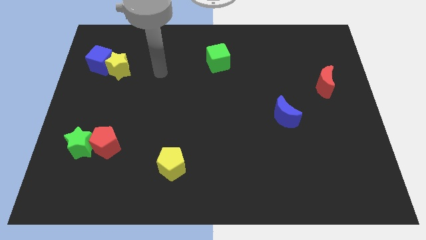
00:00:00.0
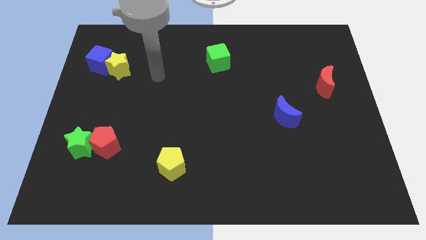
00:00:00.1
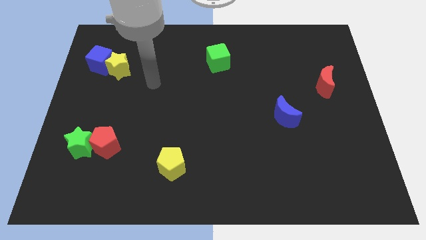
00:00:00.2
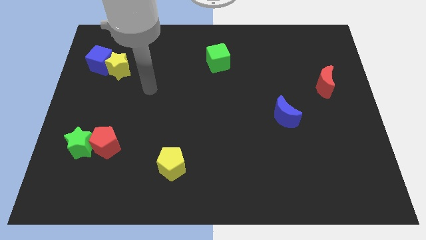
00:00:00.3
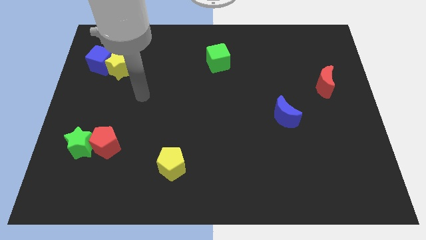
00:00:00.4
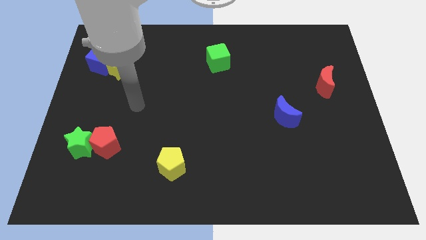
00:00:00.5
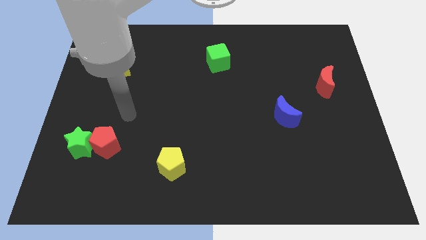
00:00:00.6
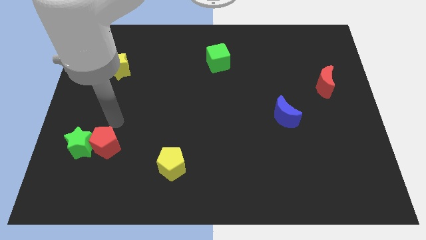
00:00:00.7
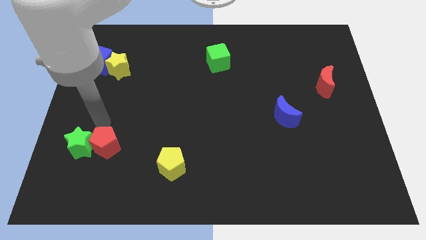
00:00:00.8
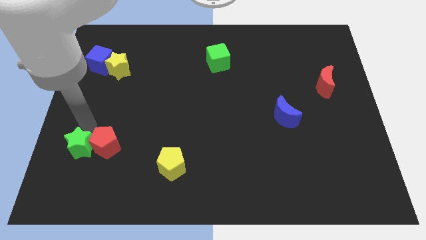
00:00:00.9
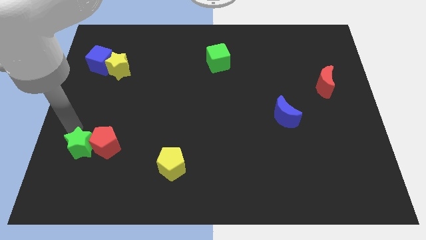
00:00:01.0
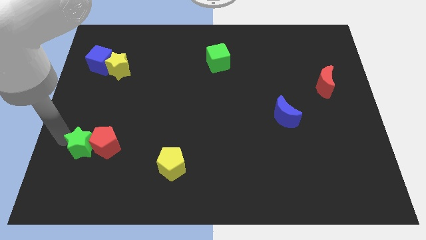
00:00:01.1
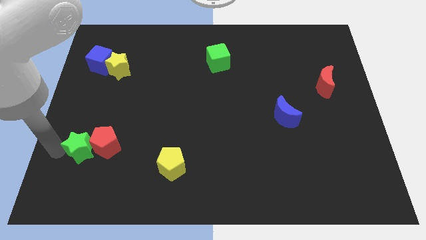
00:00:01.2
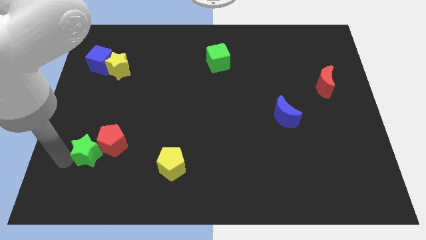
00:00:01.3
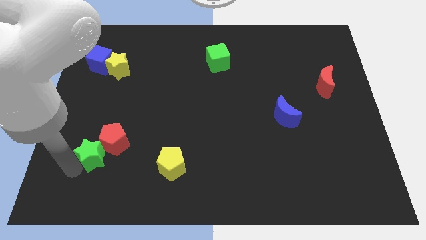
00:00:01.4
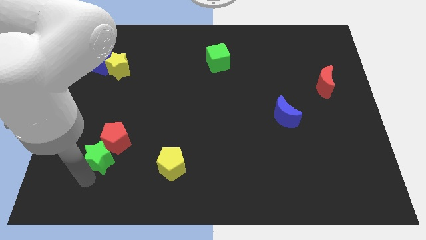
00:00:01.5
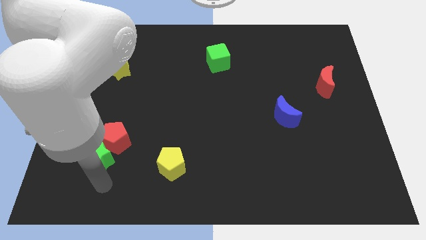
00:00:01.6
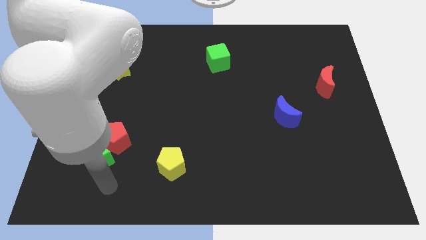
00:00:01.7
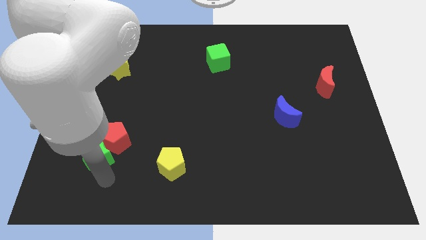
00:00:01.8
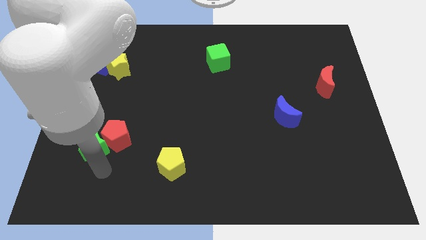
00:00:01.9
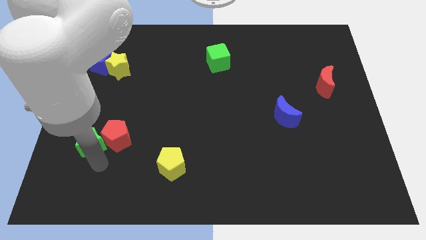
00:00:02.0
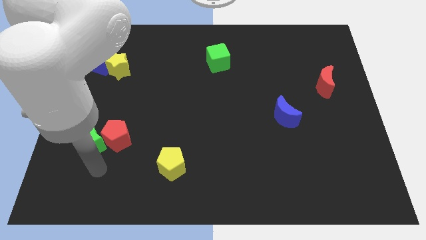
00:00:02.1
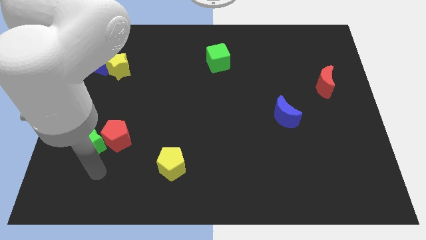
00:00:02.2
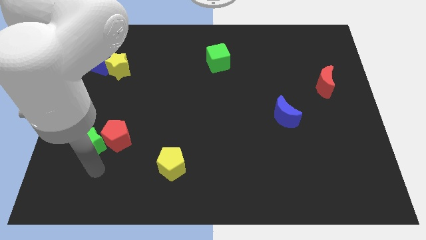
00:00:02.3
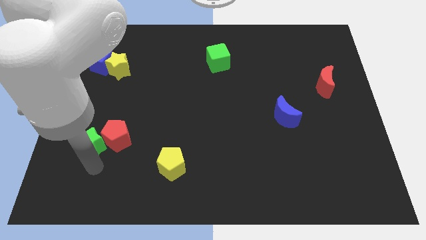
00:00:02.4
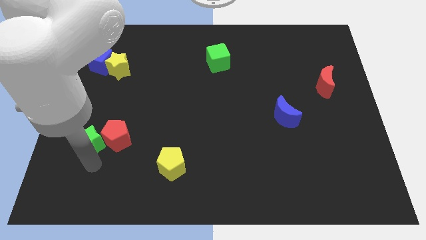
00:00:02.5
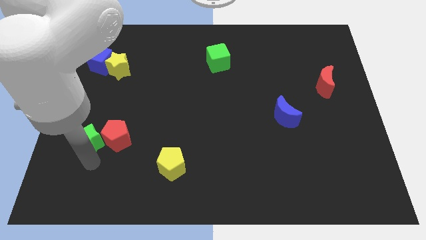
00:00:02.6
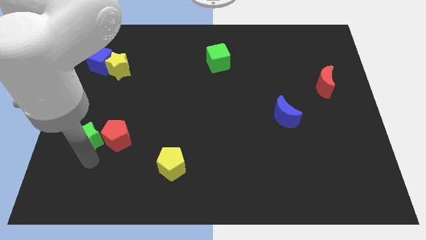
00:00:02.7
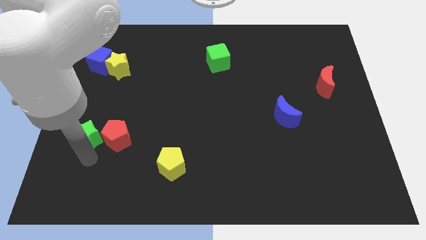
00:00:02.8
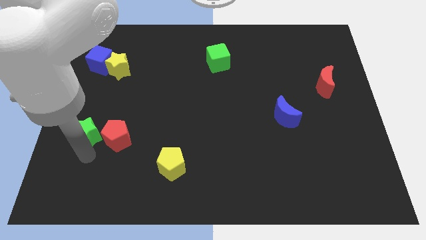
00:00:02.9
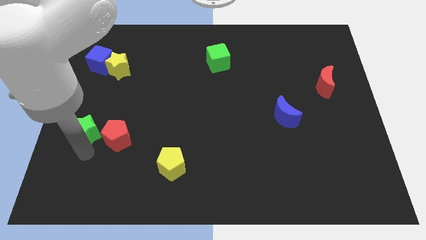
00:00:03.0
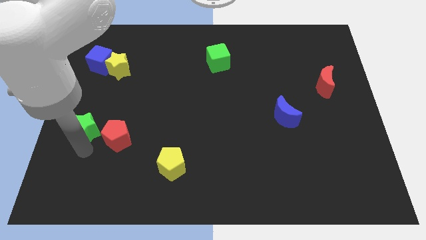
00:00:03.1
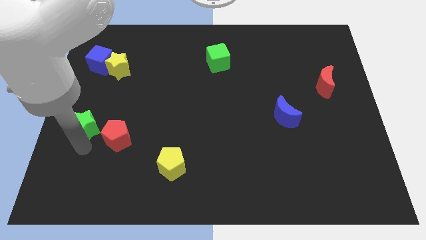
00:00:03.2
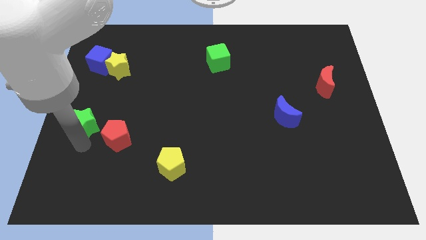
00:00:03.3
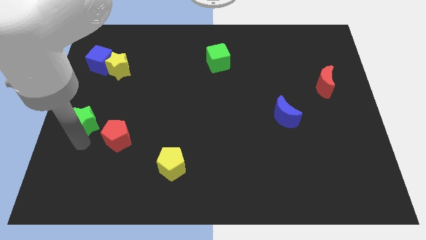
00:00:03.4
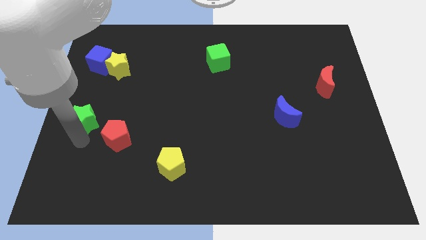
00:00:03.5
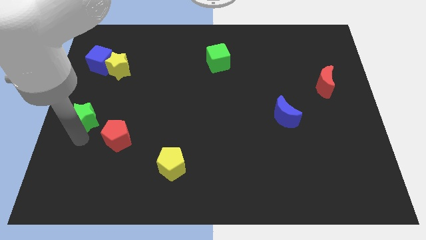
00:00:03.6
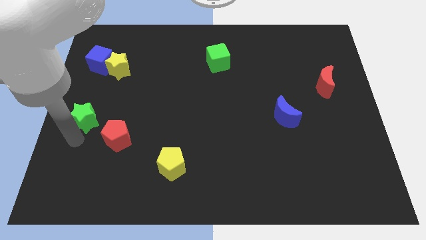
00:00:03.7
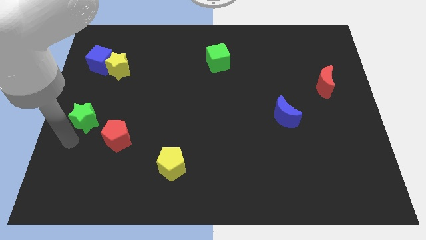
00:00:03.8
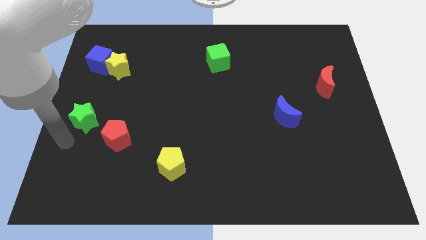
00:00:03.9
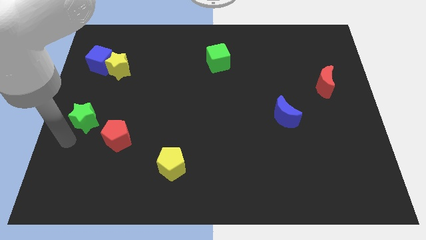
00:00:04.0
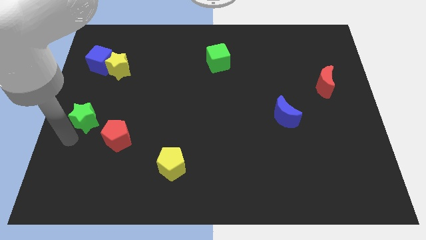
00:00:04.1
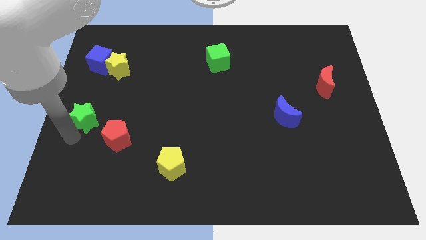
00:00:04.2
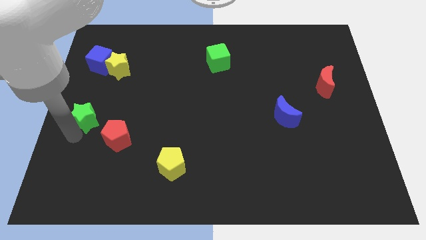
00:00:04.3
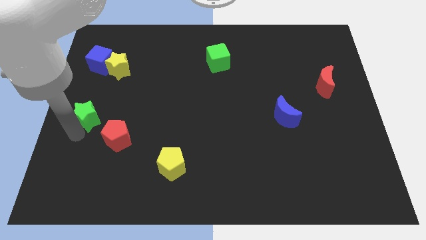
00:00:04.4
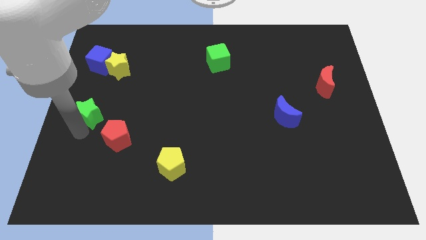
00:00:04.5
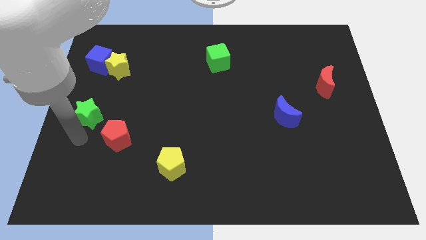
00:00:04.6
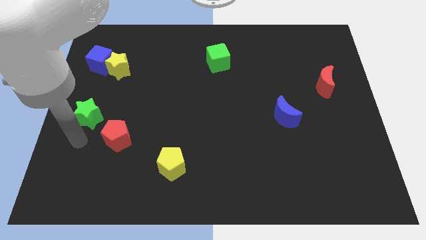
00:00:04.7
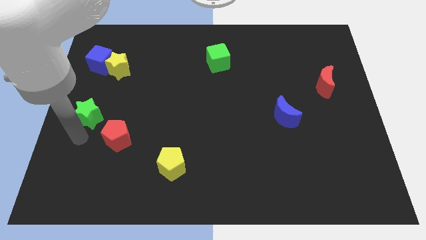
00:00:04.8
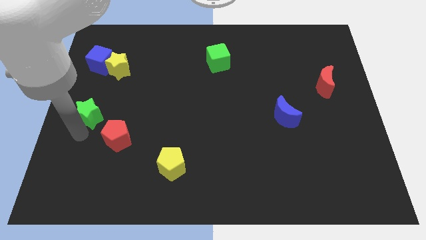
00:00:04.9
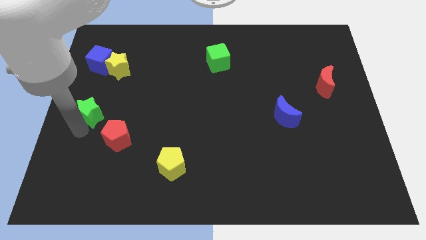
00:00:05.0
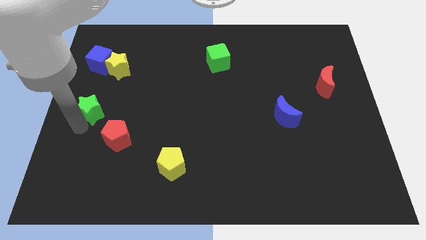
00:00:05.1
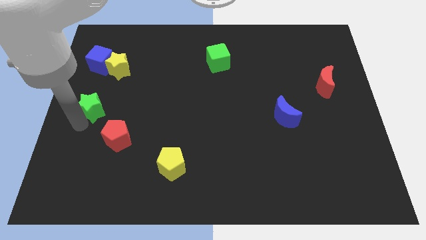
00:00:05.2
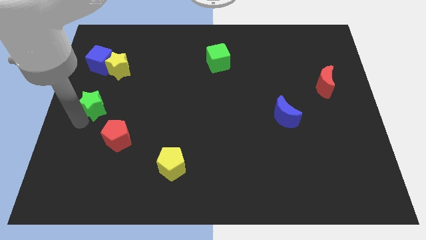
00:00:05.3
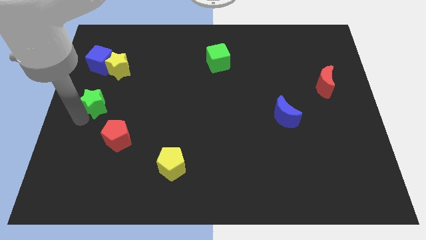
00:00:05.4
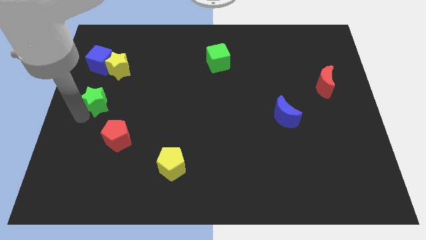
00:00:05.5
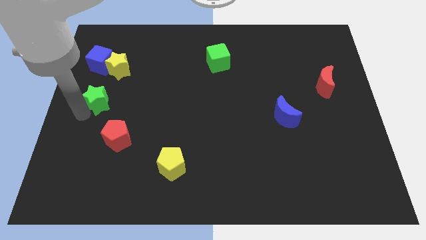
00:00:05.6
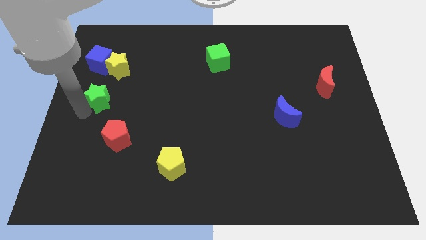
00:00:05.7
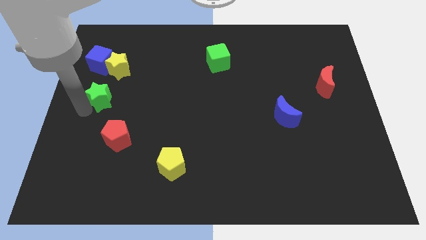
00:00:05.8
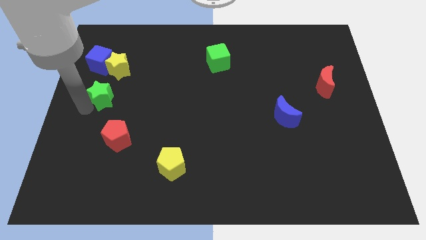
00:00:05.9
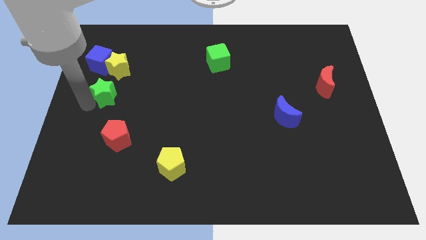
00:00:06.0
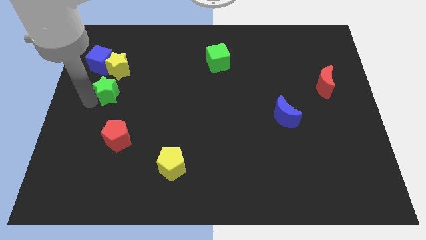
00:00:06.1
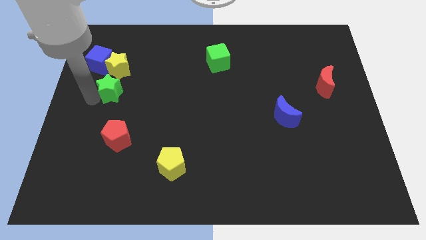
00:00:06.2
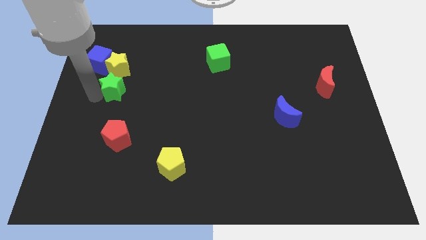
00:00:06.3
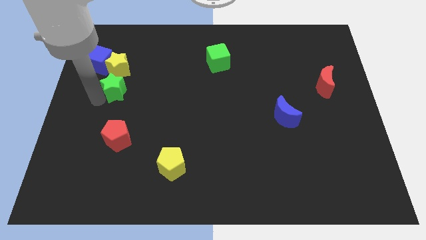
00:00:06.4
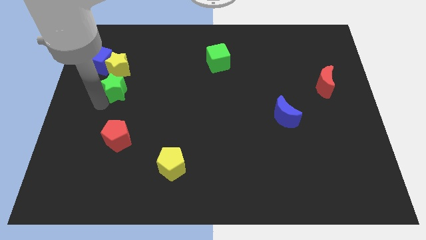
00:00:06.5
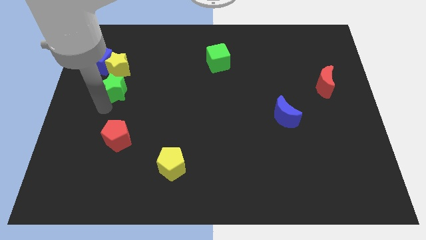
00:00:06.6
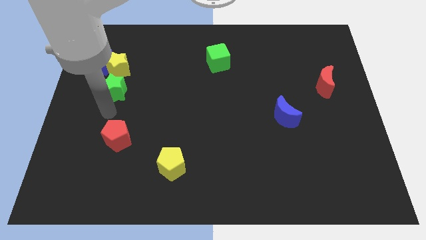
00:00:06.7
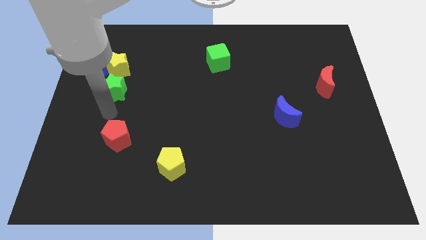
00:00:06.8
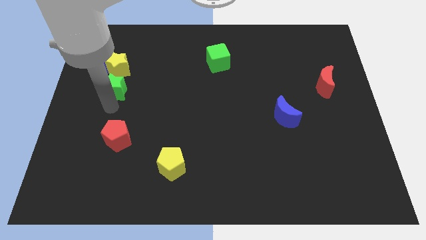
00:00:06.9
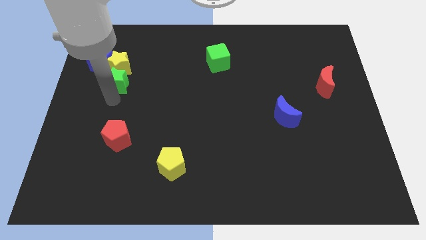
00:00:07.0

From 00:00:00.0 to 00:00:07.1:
move the green star next to the yellow star

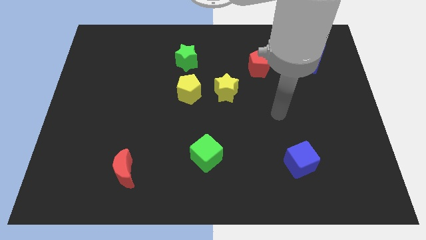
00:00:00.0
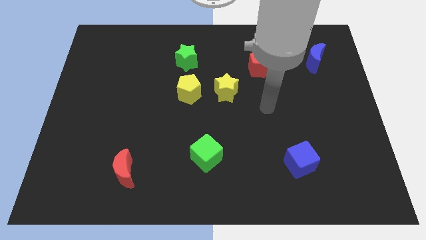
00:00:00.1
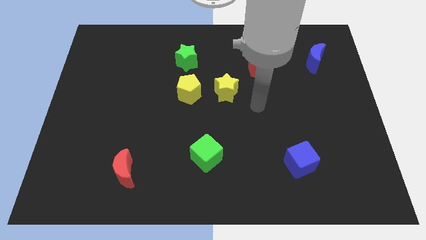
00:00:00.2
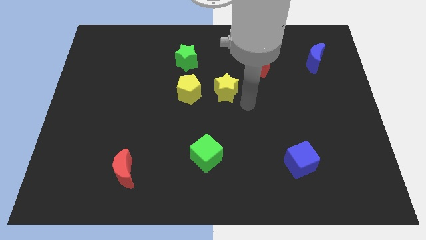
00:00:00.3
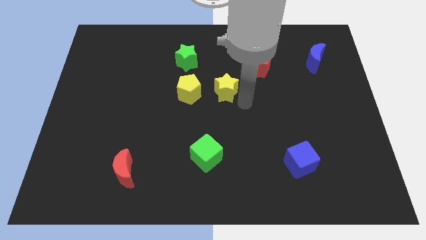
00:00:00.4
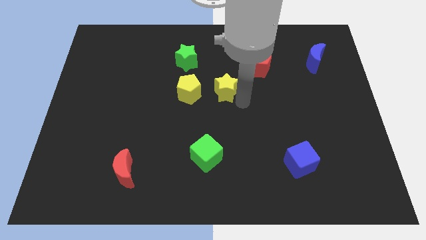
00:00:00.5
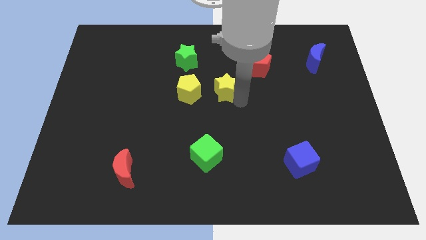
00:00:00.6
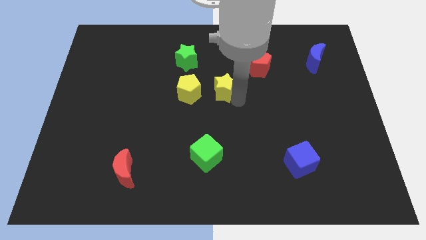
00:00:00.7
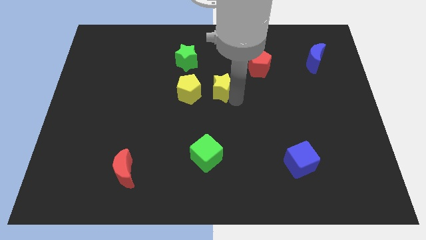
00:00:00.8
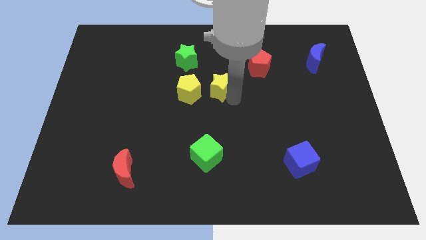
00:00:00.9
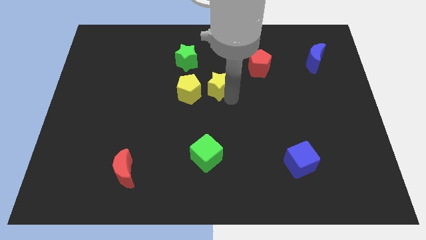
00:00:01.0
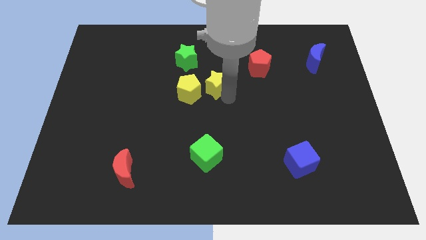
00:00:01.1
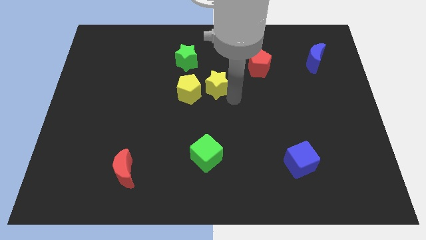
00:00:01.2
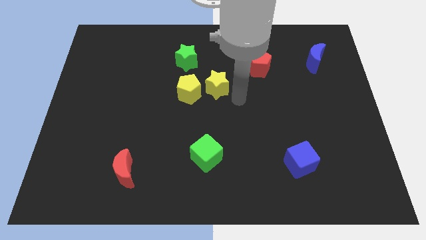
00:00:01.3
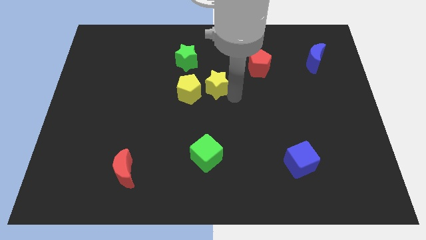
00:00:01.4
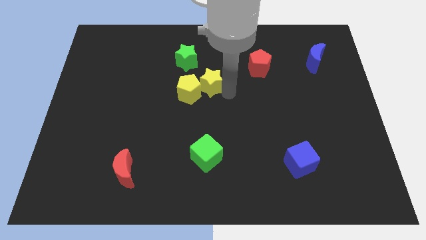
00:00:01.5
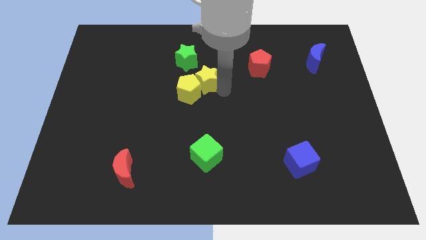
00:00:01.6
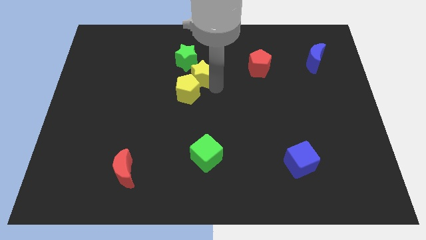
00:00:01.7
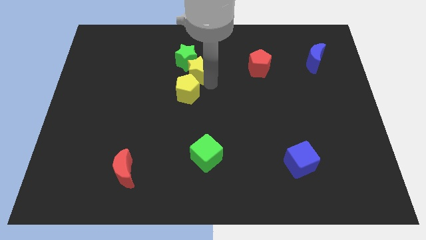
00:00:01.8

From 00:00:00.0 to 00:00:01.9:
push the yellow star to the green star
